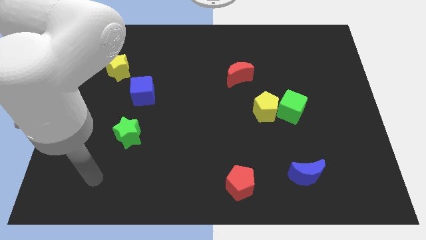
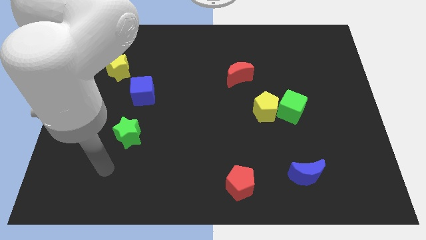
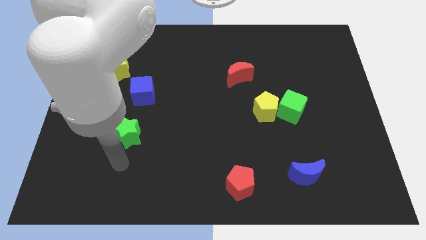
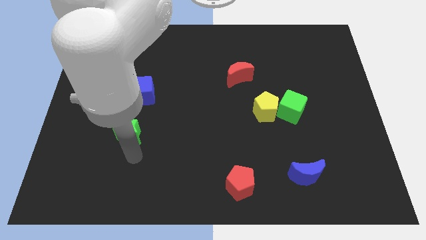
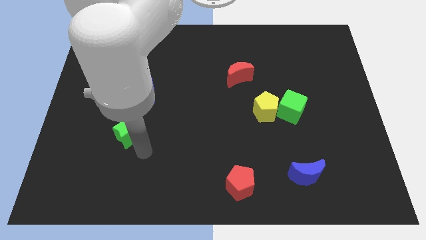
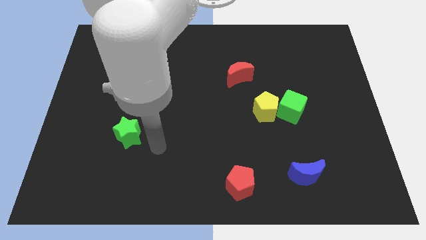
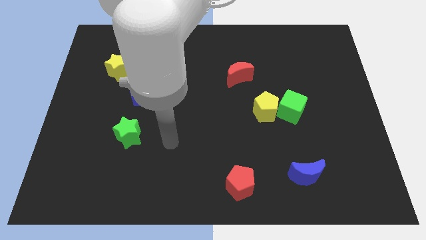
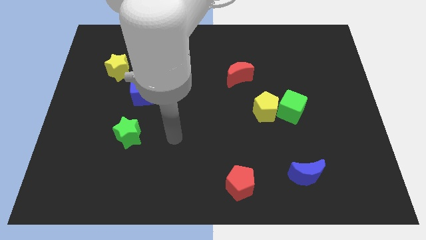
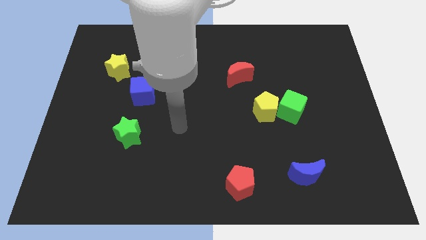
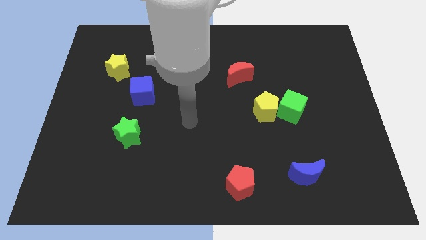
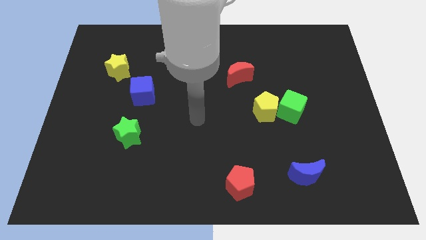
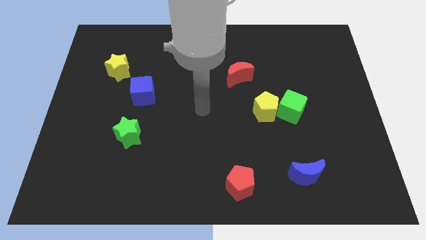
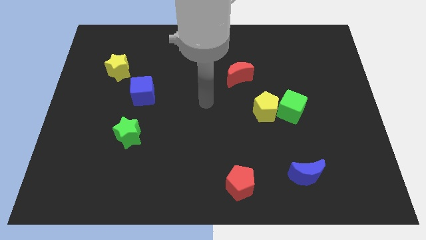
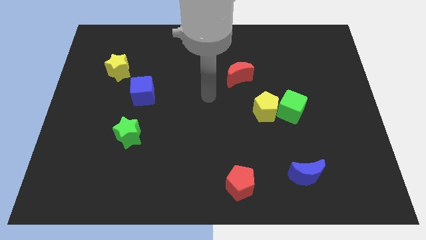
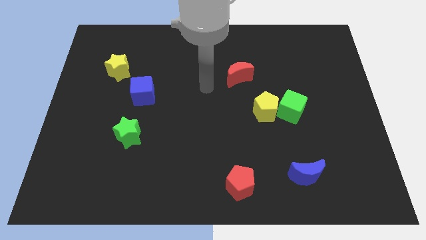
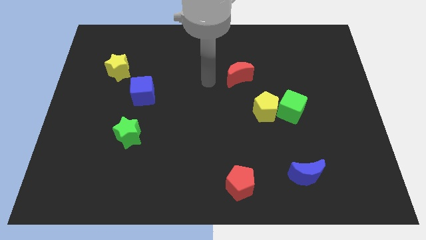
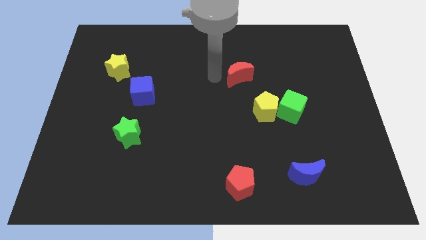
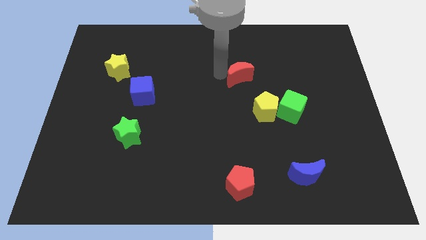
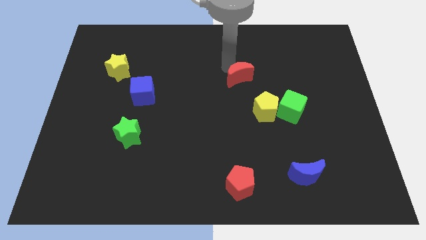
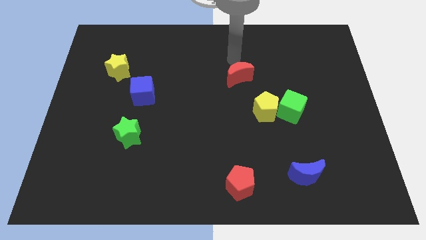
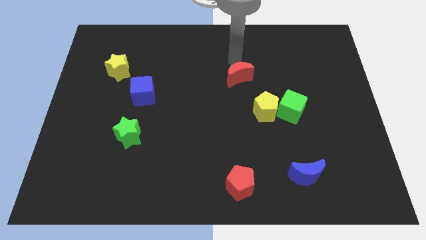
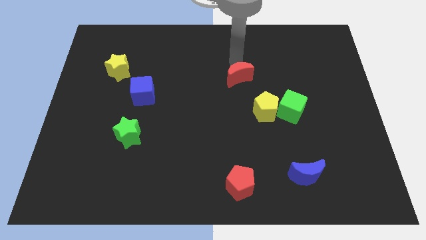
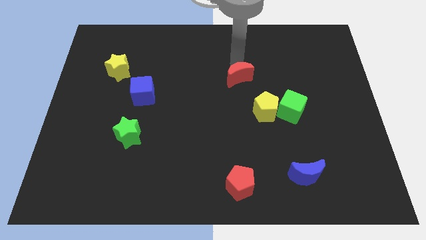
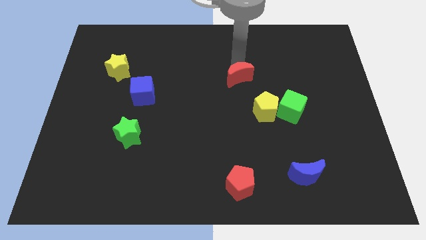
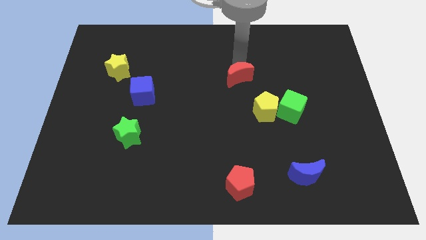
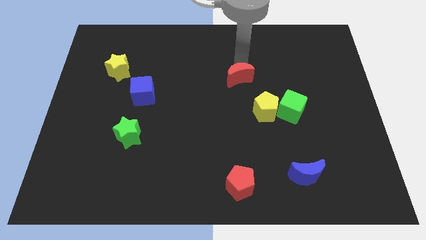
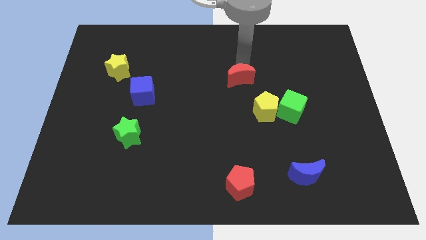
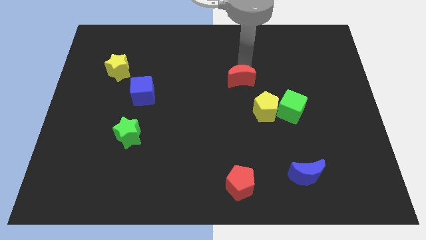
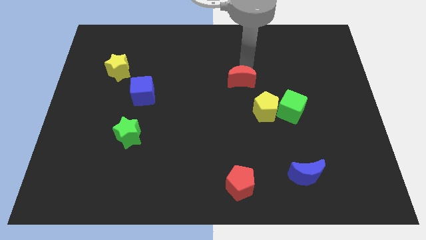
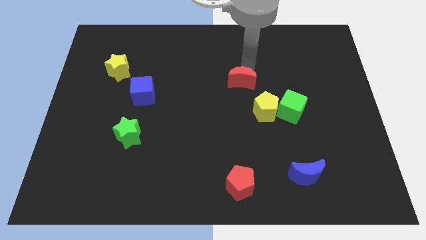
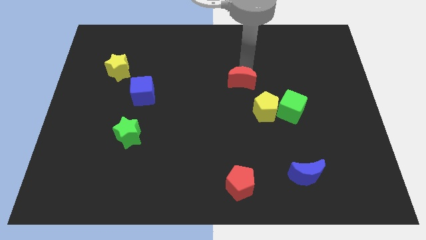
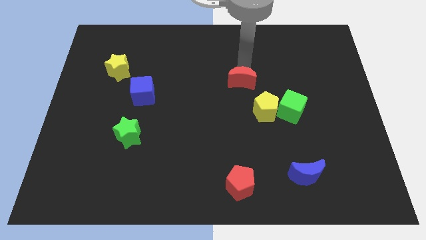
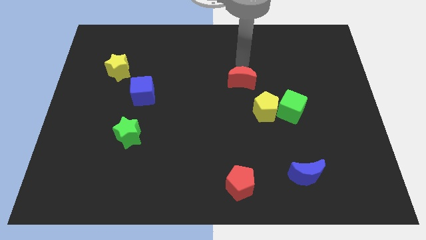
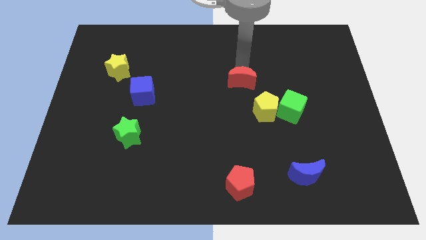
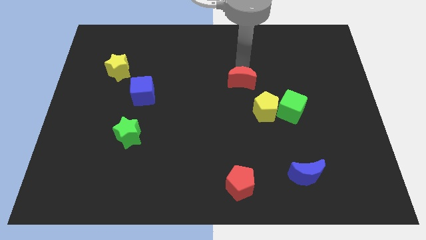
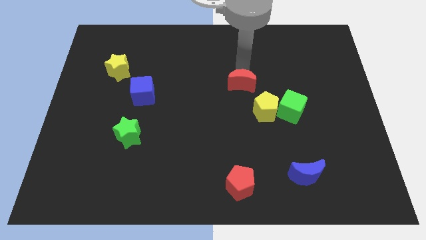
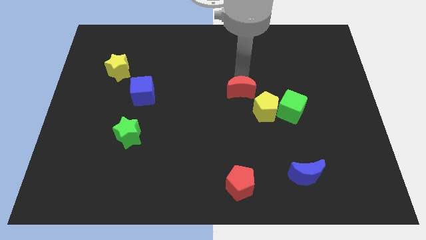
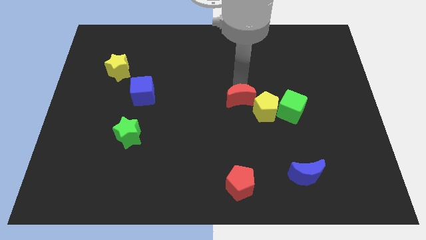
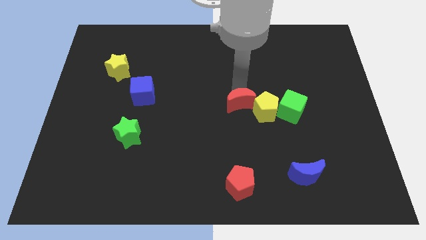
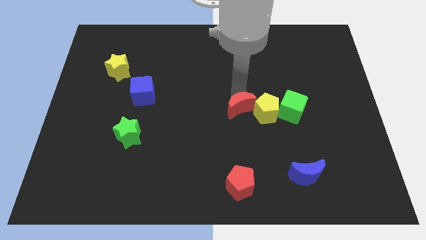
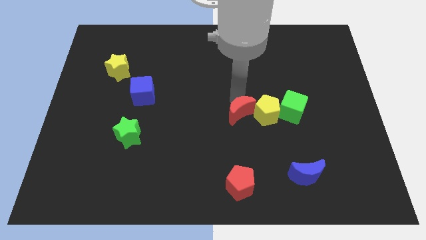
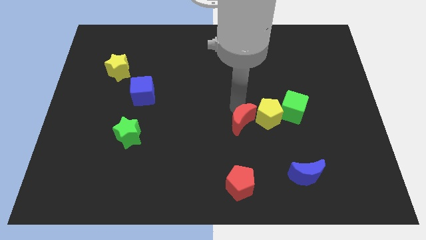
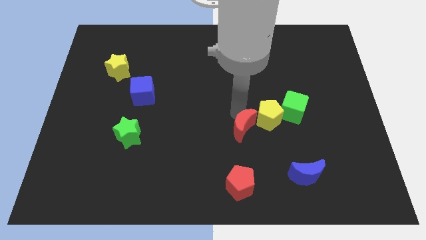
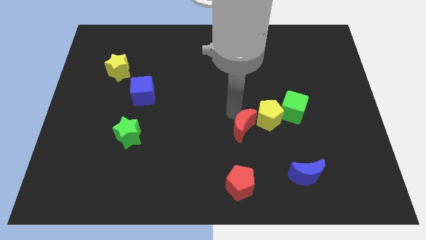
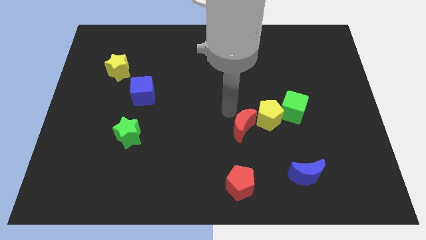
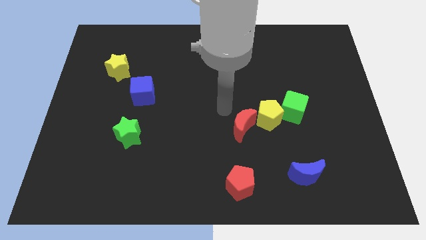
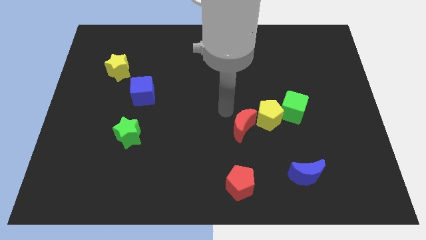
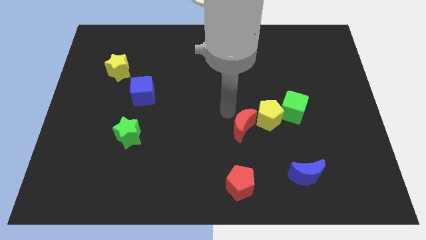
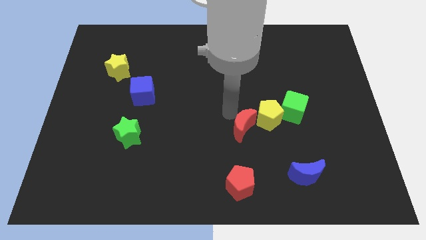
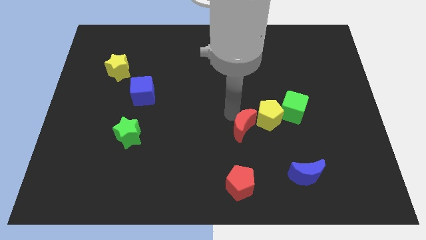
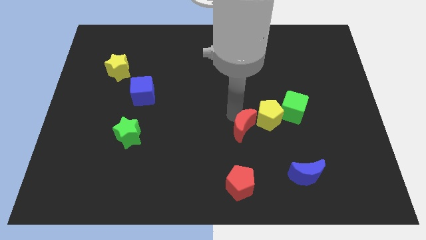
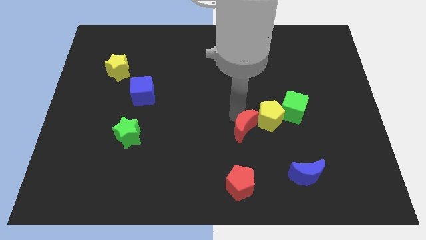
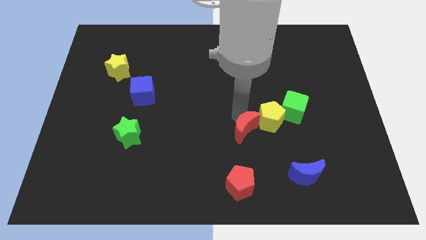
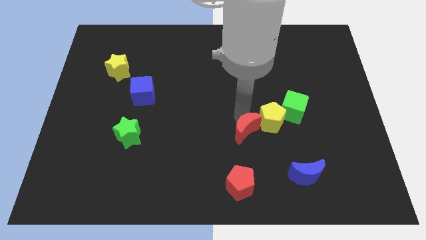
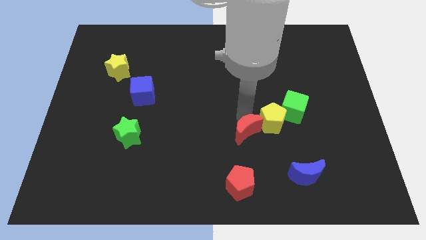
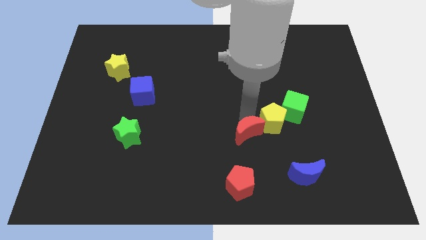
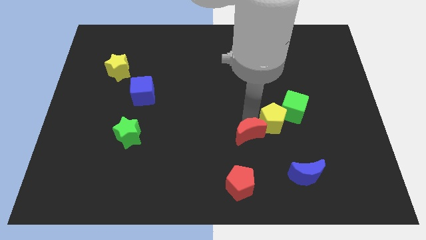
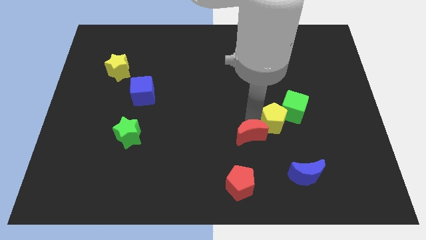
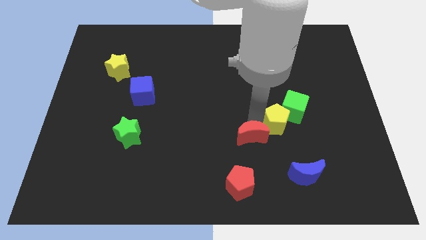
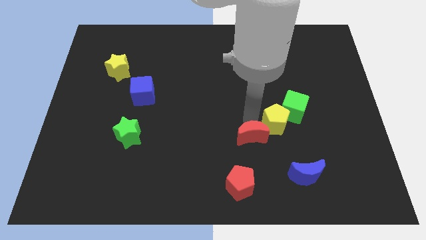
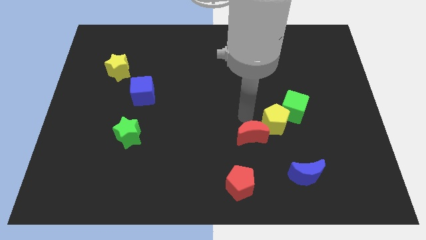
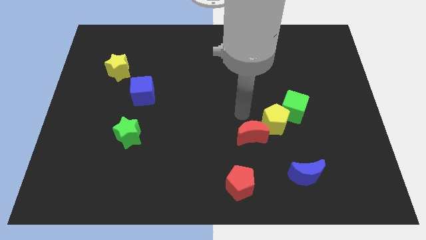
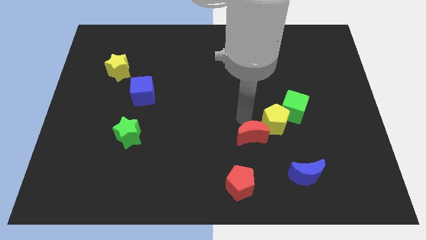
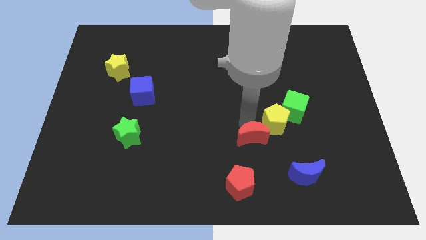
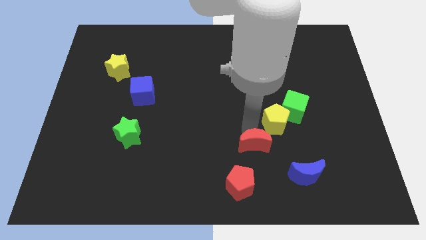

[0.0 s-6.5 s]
move the red moon to the top right of the red pentagon
